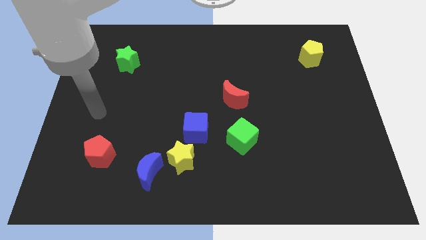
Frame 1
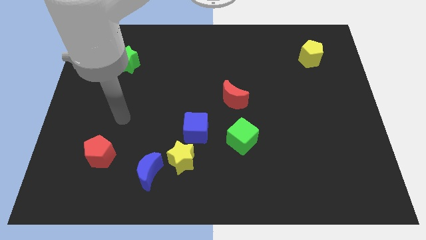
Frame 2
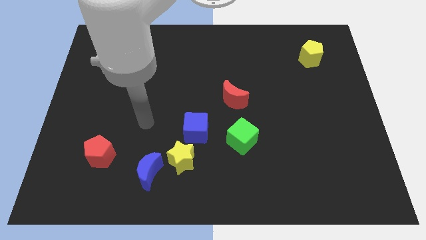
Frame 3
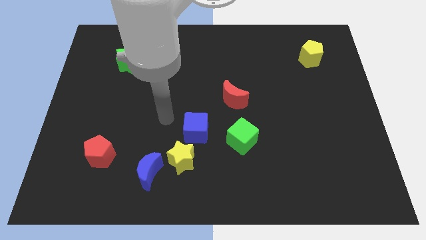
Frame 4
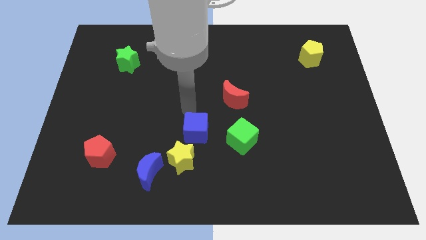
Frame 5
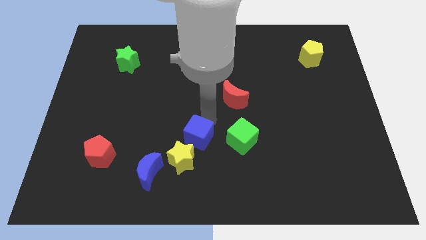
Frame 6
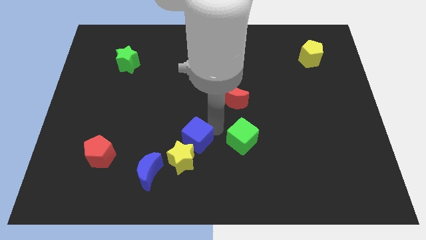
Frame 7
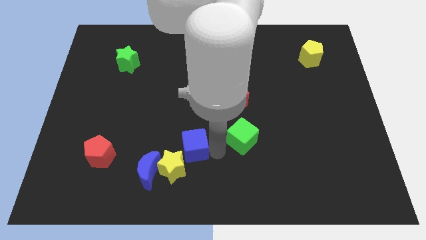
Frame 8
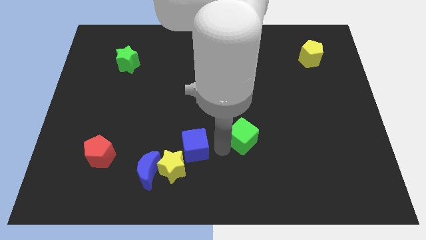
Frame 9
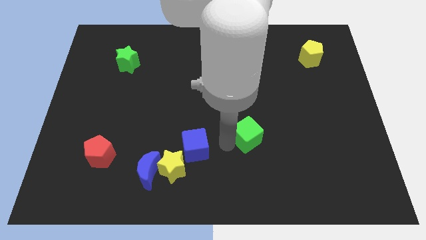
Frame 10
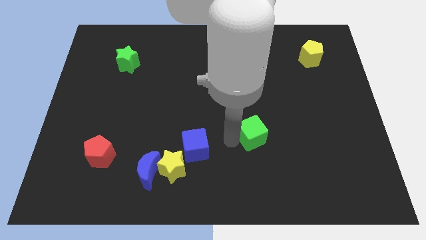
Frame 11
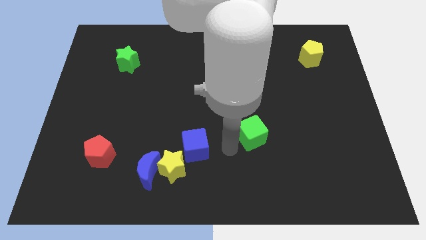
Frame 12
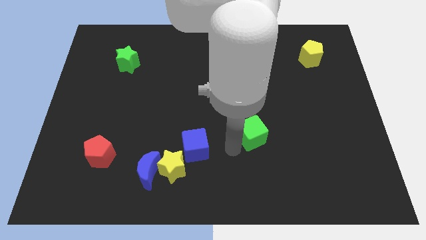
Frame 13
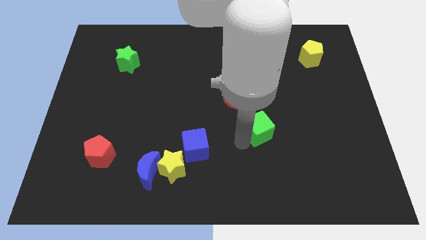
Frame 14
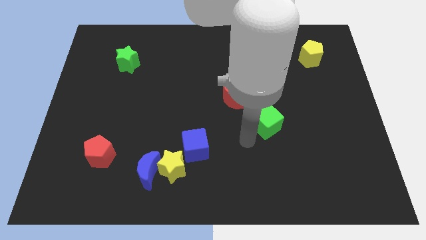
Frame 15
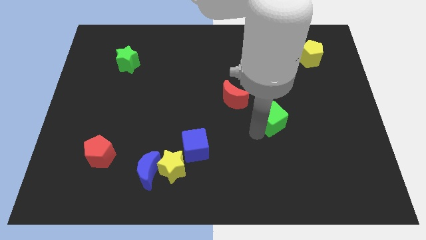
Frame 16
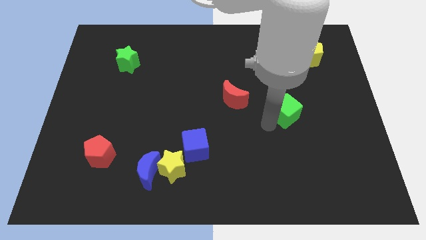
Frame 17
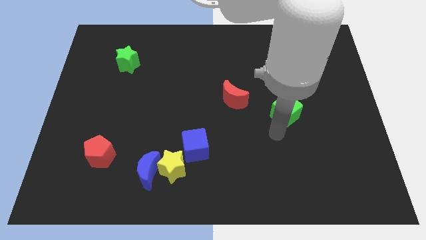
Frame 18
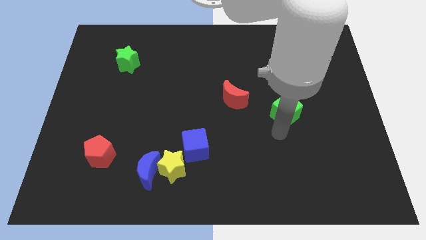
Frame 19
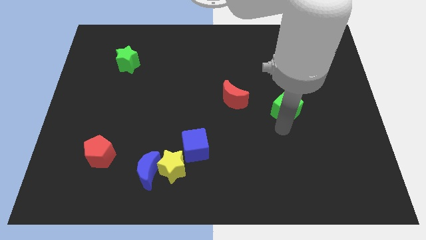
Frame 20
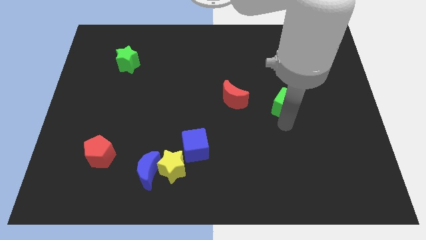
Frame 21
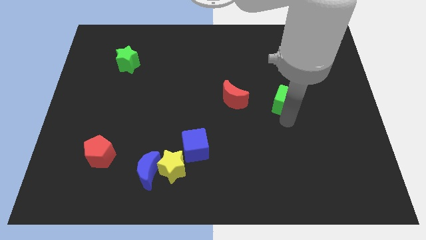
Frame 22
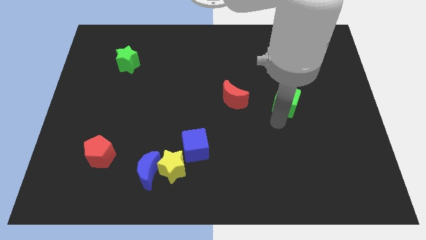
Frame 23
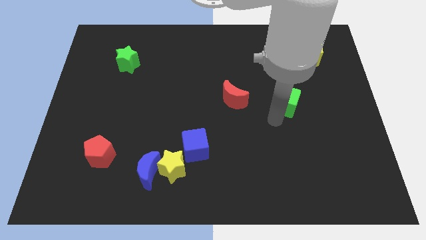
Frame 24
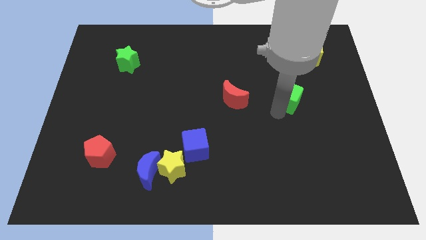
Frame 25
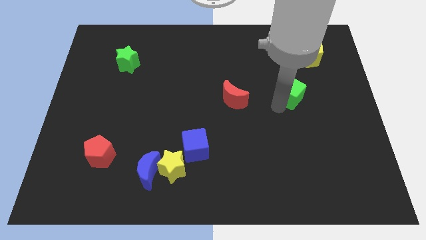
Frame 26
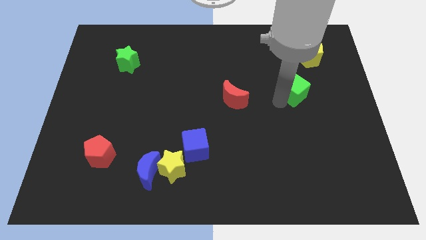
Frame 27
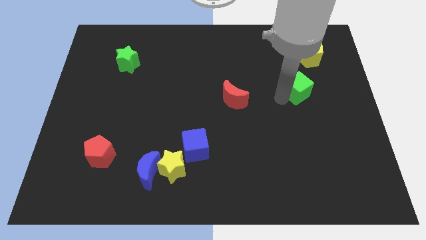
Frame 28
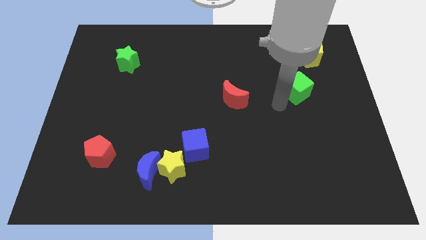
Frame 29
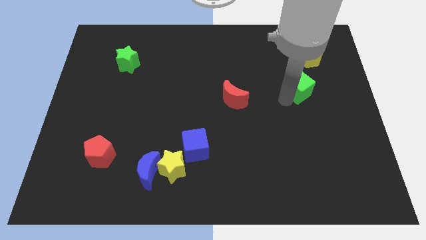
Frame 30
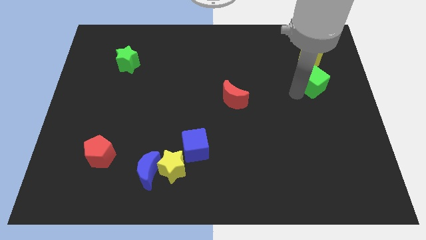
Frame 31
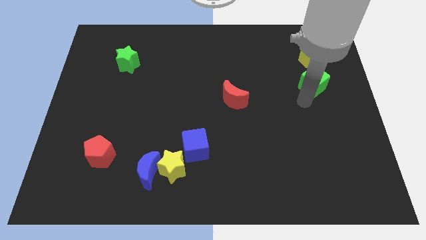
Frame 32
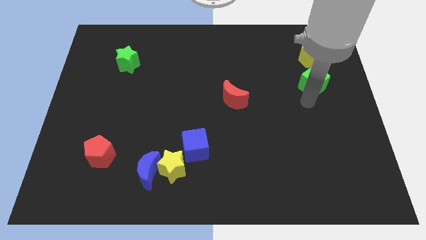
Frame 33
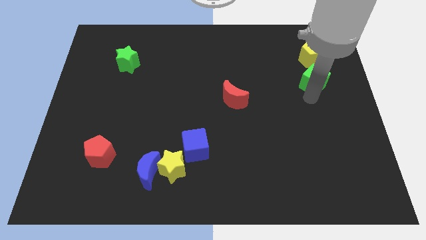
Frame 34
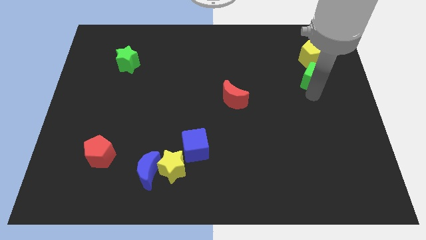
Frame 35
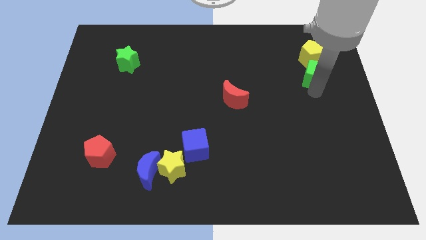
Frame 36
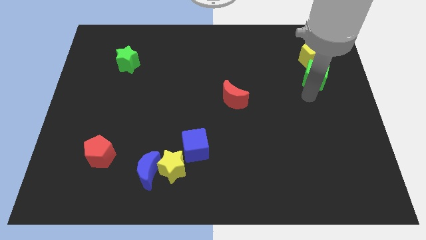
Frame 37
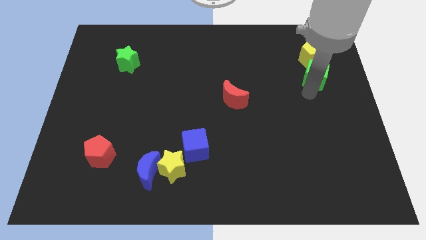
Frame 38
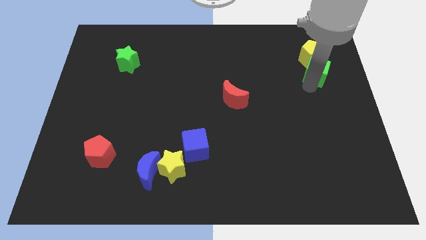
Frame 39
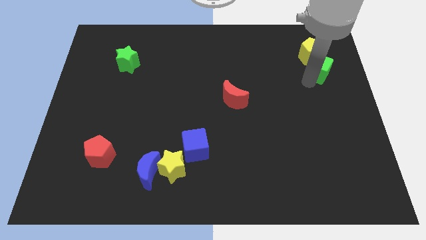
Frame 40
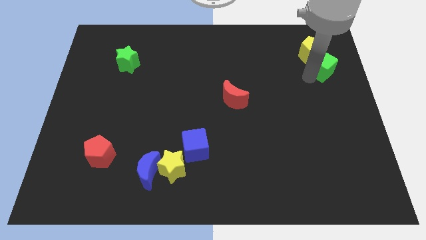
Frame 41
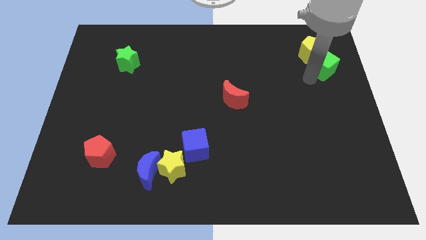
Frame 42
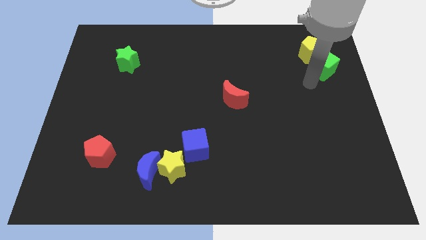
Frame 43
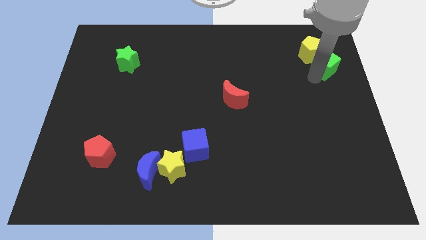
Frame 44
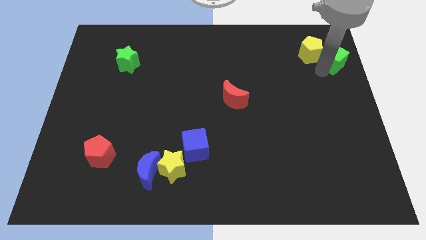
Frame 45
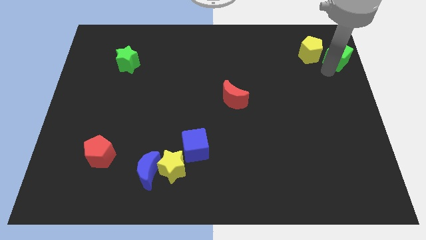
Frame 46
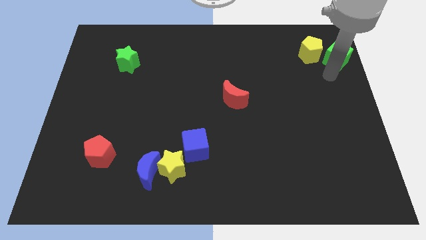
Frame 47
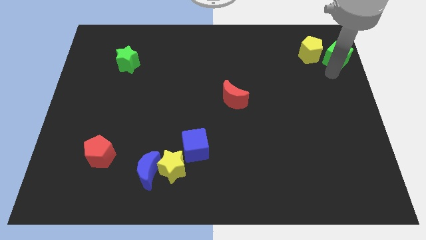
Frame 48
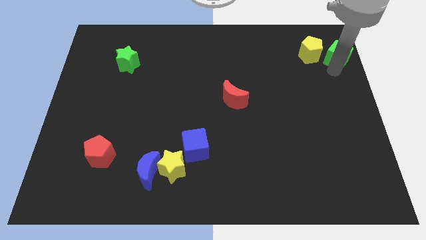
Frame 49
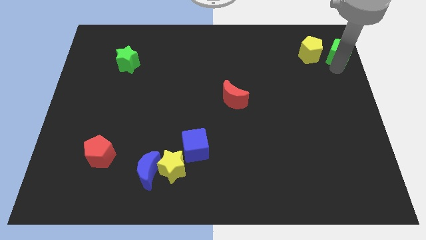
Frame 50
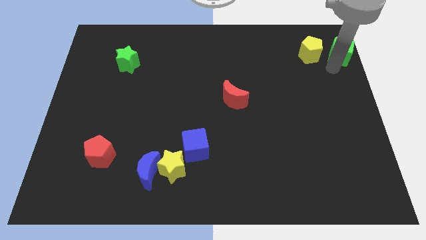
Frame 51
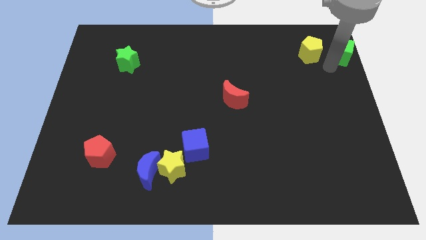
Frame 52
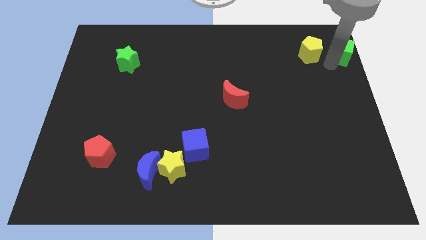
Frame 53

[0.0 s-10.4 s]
put the green cube to the top right of the board

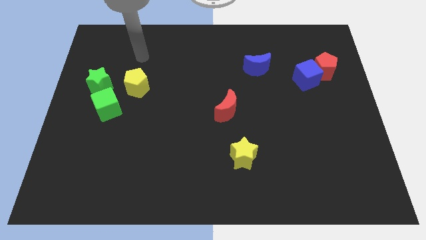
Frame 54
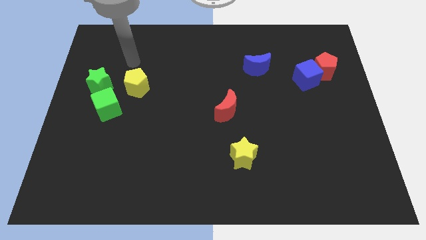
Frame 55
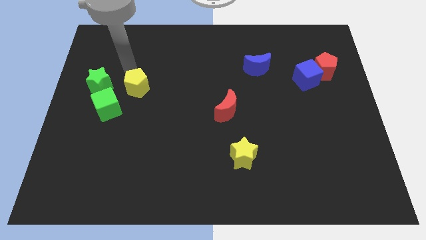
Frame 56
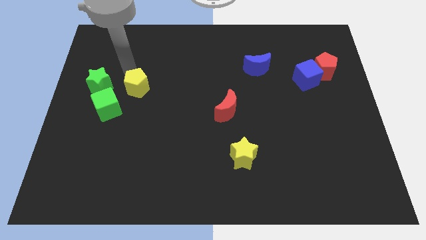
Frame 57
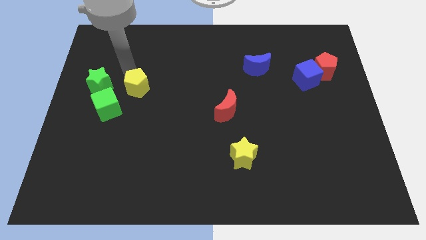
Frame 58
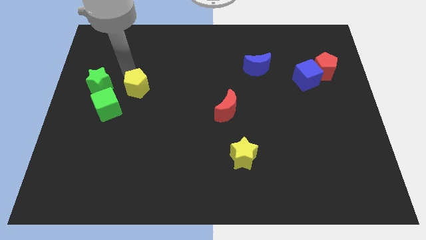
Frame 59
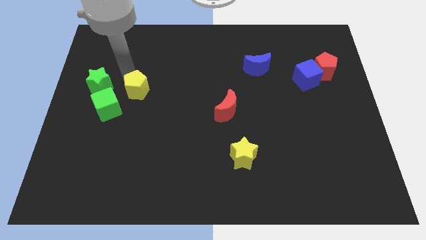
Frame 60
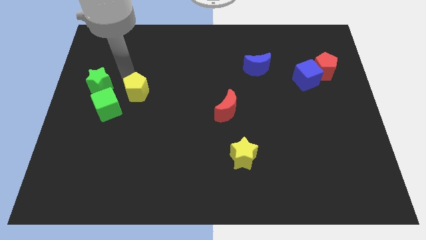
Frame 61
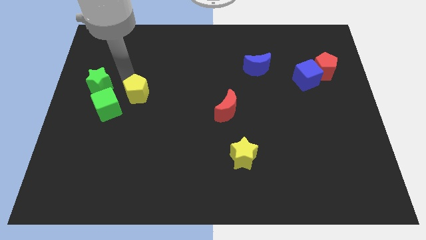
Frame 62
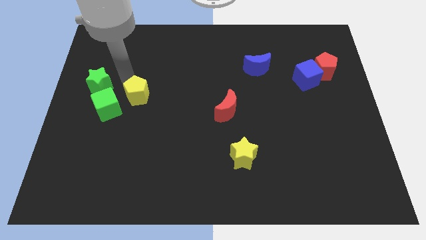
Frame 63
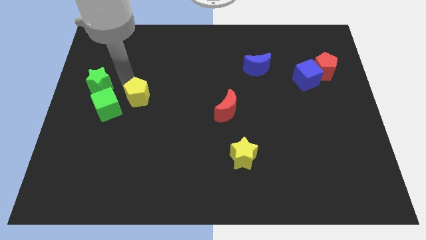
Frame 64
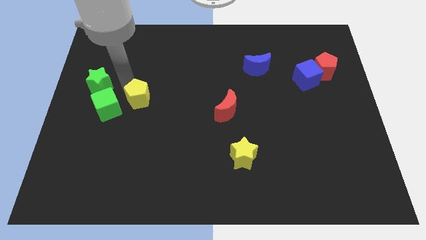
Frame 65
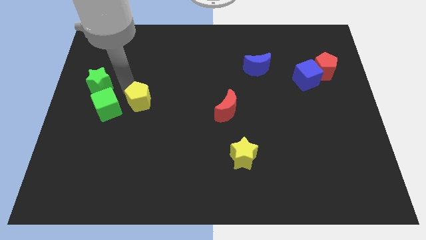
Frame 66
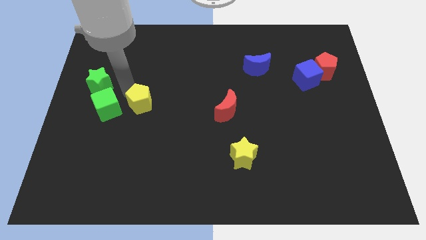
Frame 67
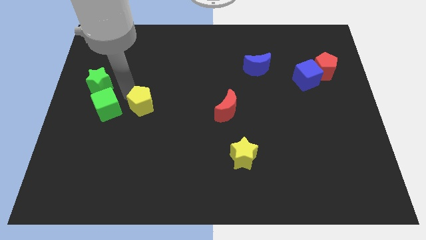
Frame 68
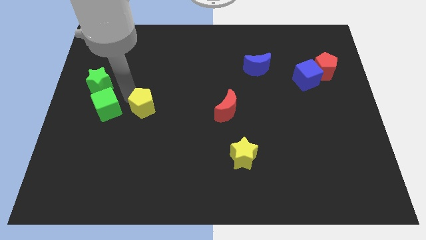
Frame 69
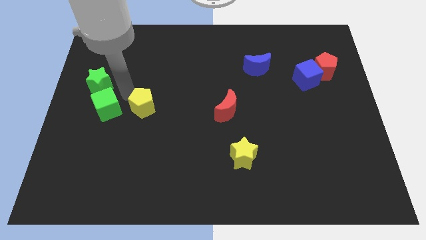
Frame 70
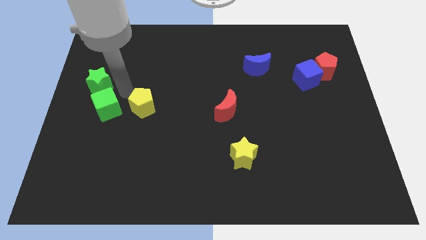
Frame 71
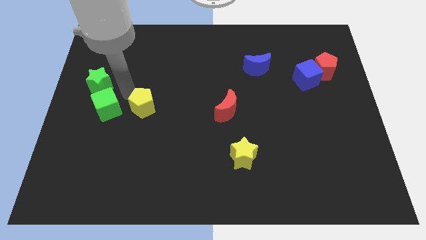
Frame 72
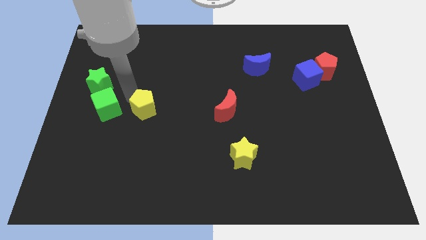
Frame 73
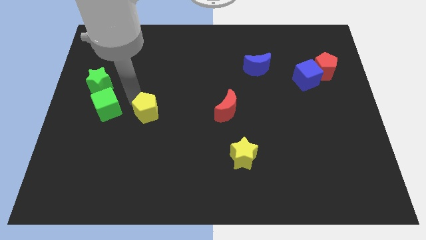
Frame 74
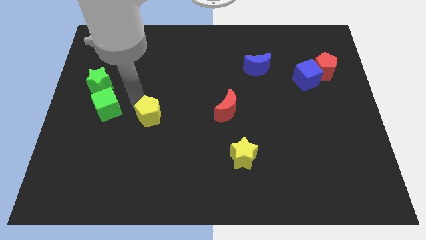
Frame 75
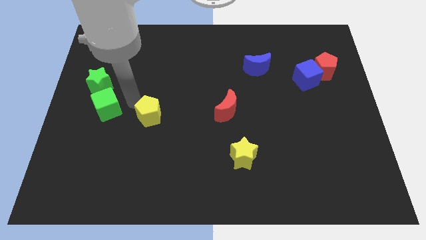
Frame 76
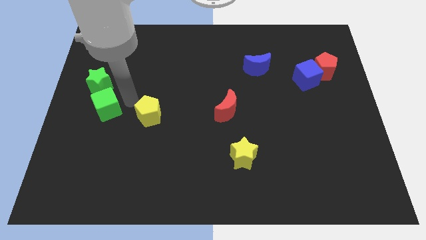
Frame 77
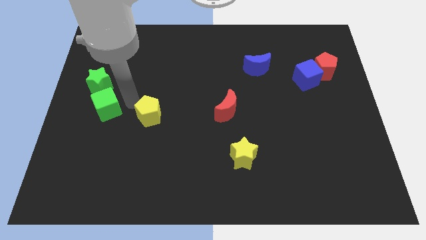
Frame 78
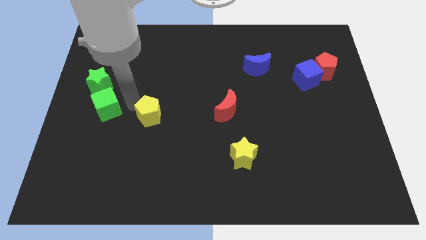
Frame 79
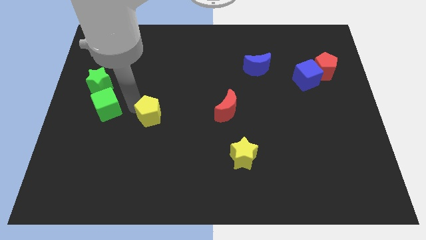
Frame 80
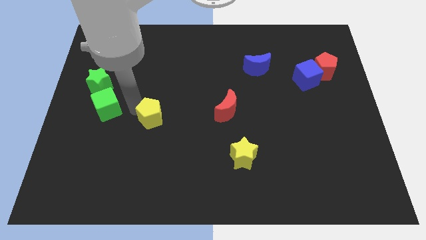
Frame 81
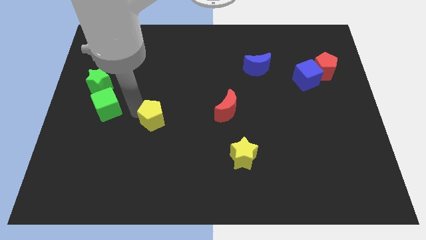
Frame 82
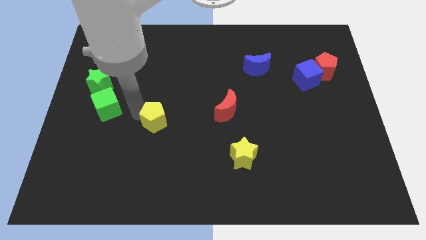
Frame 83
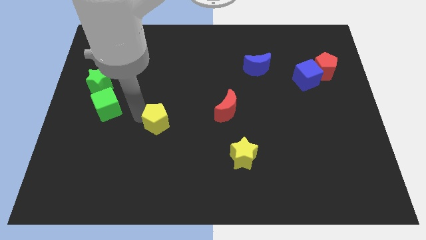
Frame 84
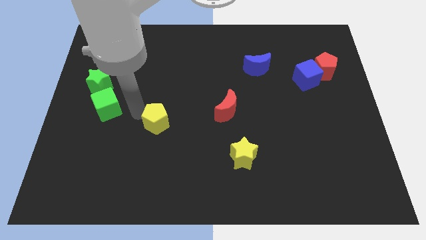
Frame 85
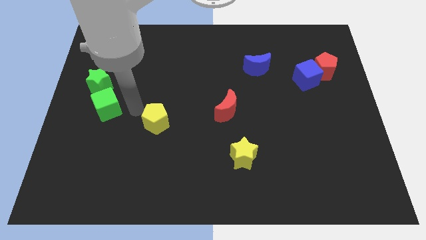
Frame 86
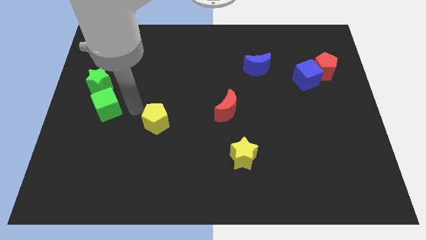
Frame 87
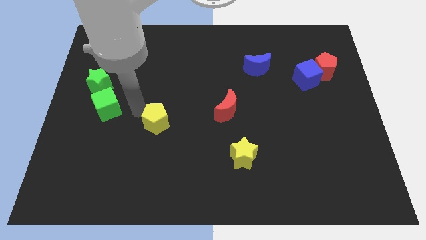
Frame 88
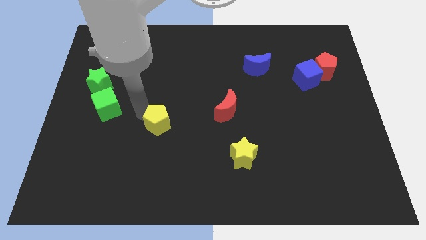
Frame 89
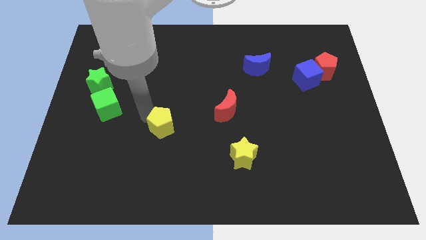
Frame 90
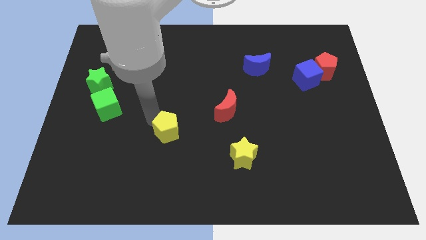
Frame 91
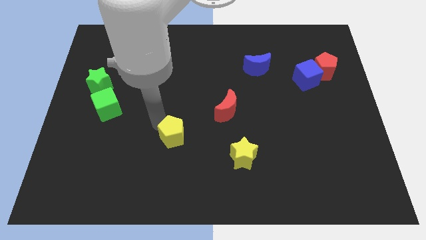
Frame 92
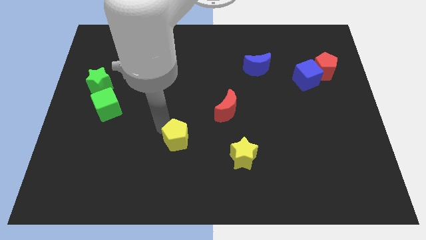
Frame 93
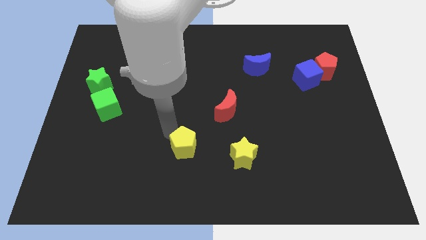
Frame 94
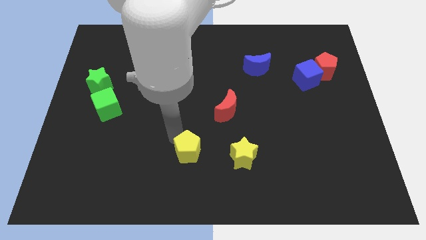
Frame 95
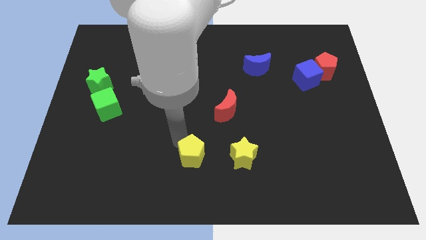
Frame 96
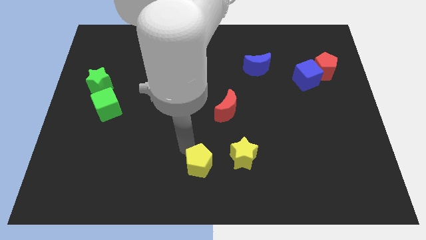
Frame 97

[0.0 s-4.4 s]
move the yellow pentagon to the bottom side
